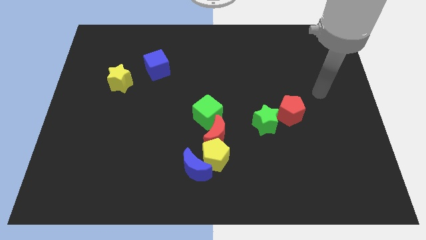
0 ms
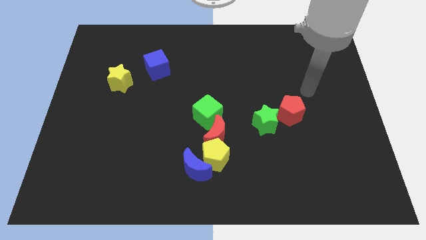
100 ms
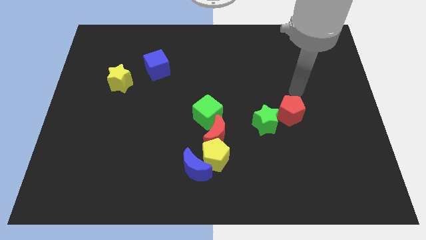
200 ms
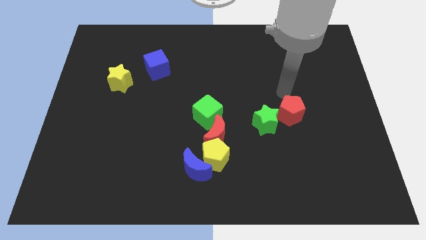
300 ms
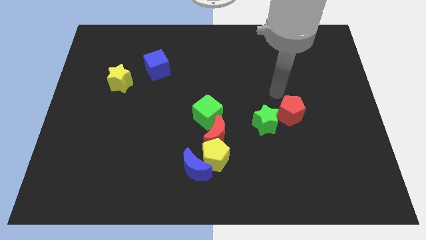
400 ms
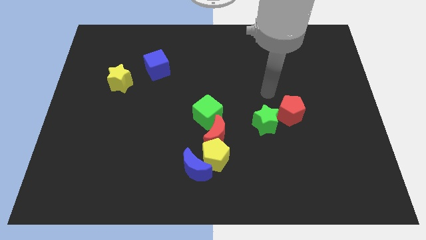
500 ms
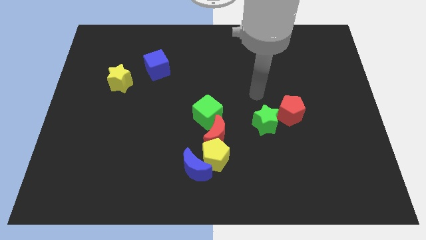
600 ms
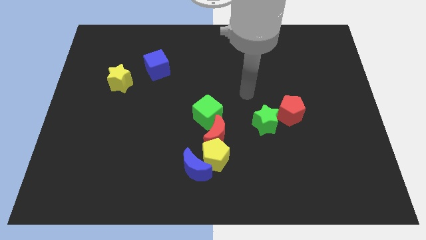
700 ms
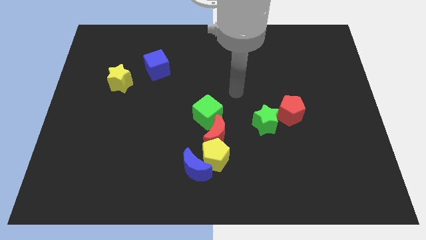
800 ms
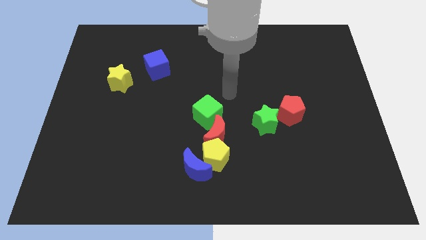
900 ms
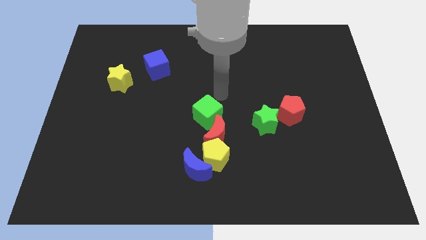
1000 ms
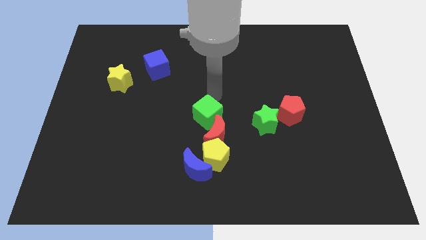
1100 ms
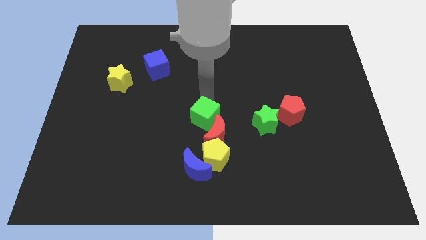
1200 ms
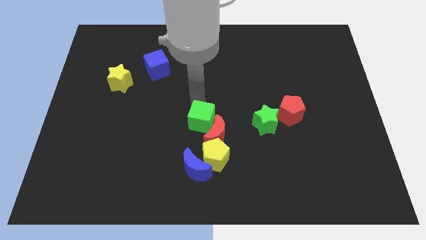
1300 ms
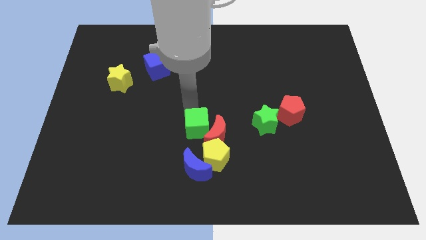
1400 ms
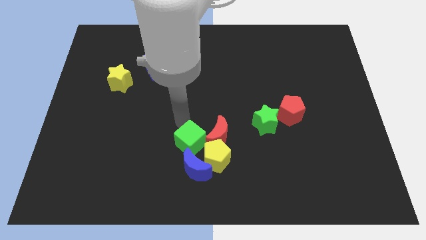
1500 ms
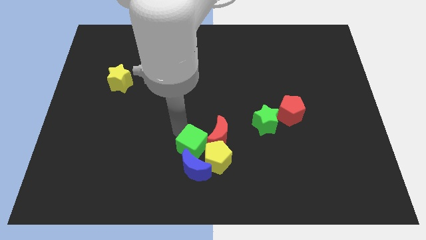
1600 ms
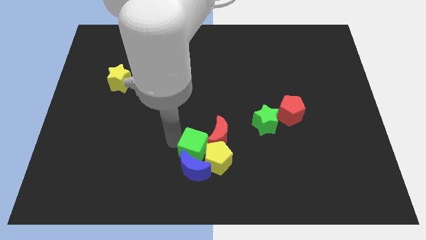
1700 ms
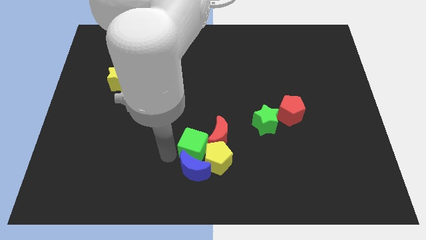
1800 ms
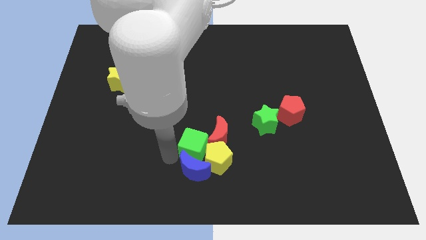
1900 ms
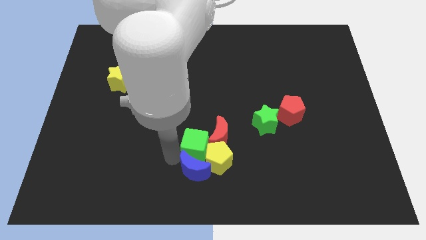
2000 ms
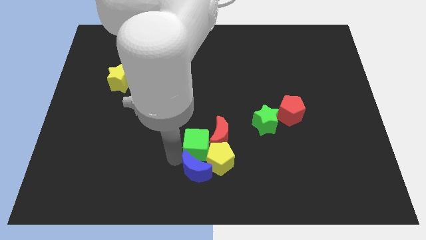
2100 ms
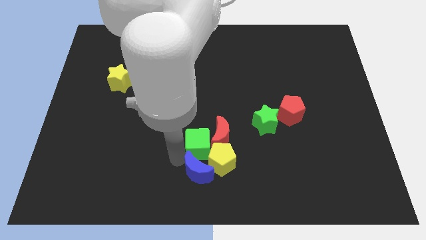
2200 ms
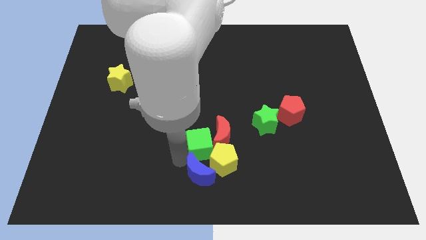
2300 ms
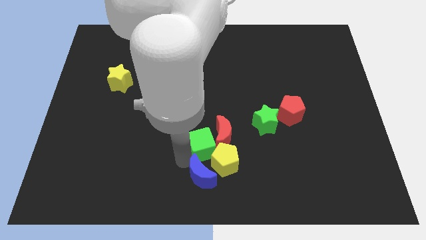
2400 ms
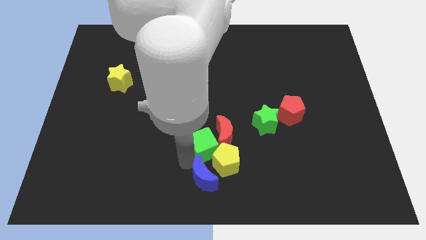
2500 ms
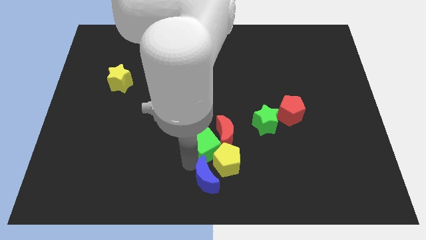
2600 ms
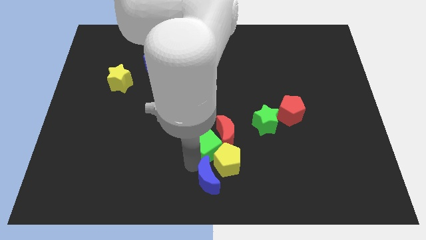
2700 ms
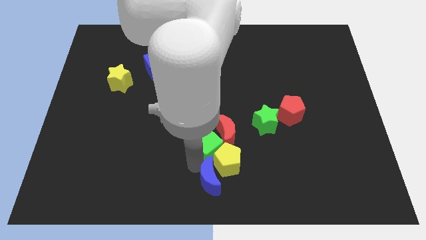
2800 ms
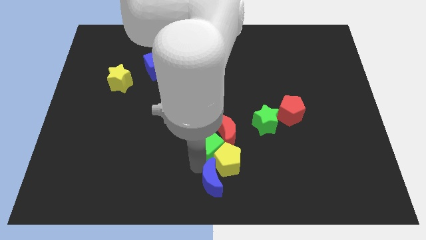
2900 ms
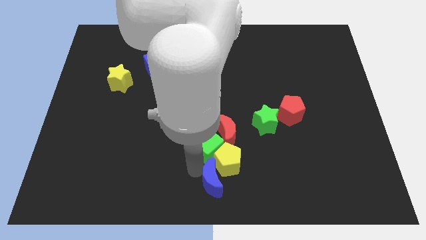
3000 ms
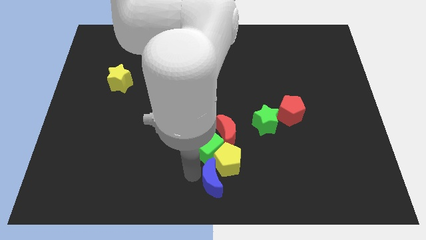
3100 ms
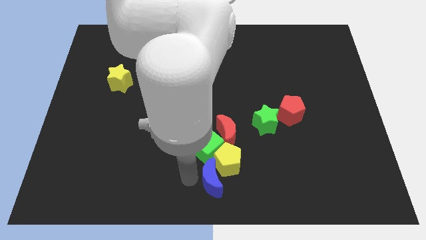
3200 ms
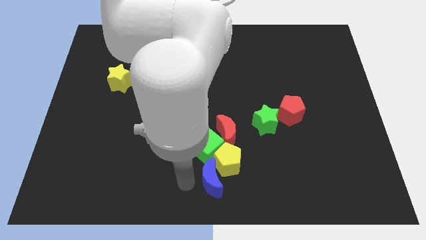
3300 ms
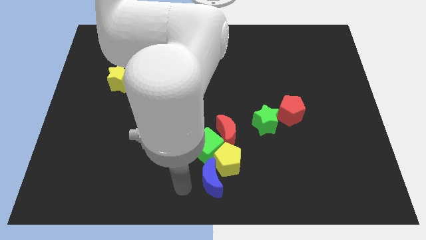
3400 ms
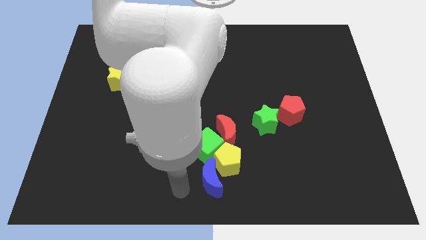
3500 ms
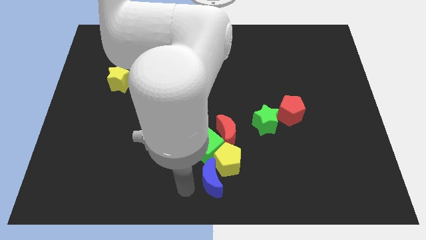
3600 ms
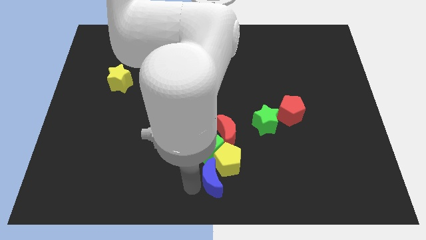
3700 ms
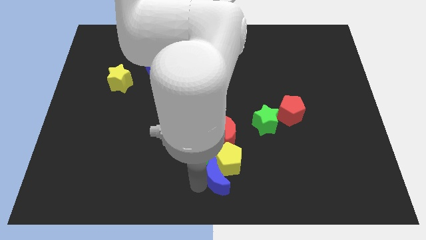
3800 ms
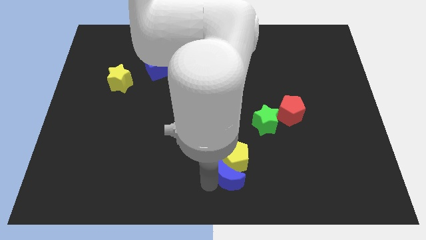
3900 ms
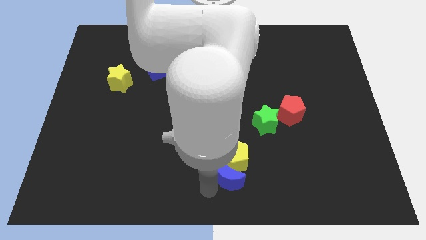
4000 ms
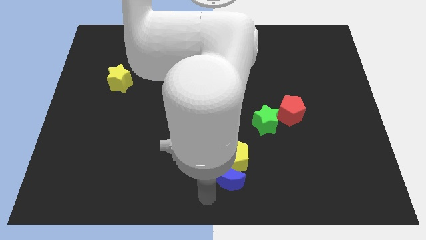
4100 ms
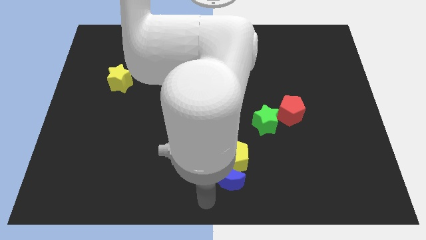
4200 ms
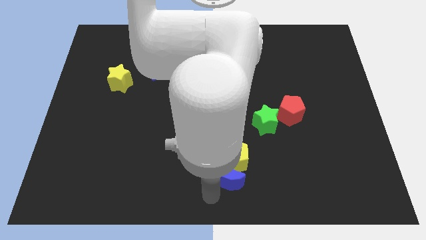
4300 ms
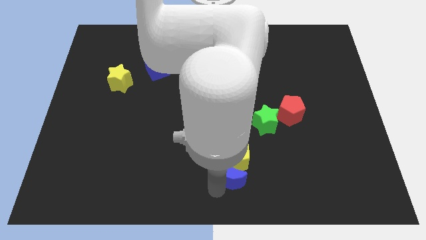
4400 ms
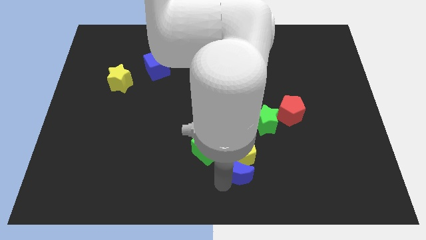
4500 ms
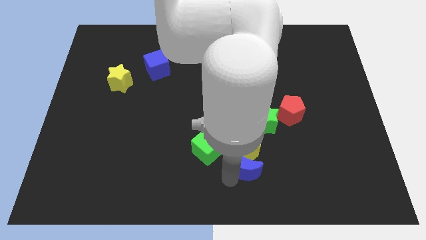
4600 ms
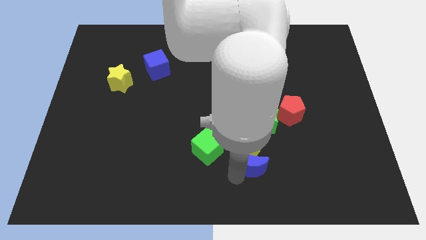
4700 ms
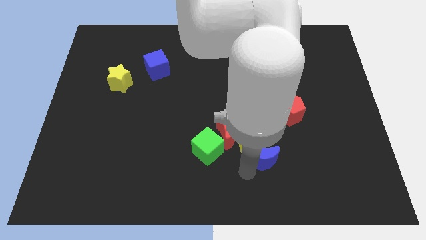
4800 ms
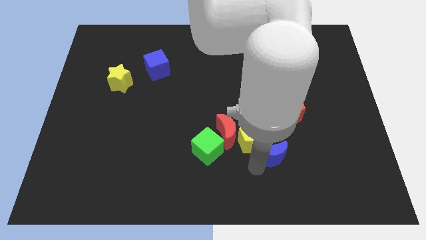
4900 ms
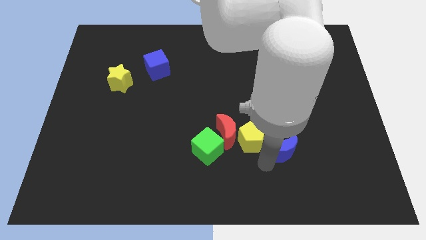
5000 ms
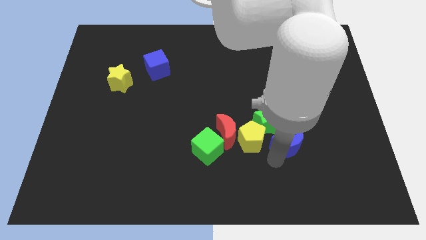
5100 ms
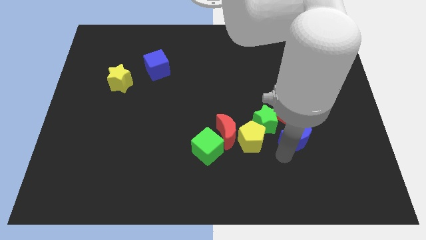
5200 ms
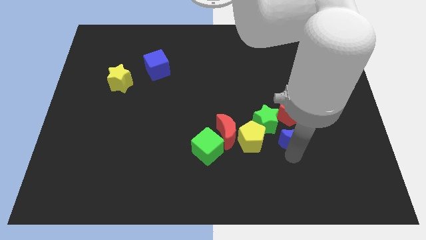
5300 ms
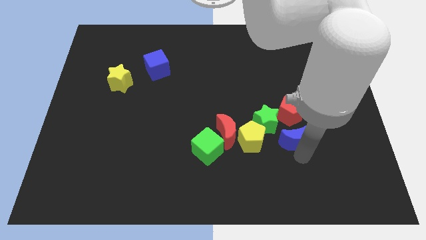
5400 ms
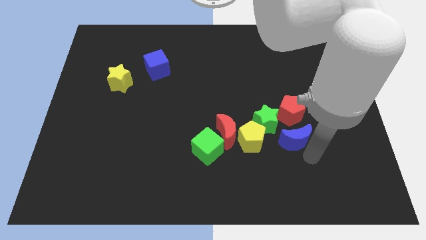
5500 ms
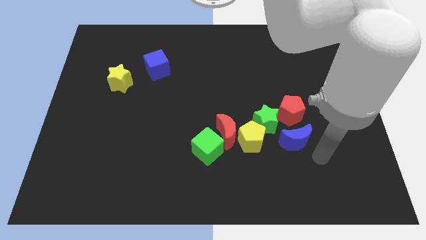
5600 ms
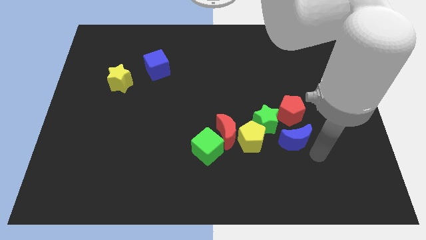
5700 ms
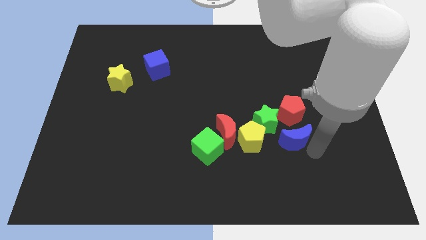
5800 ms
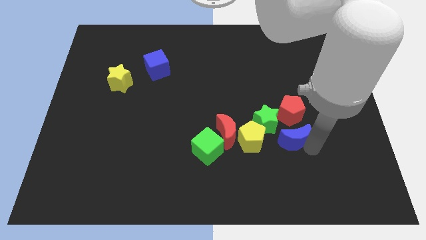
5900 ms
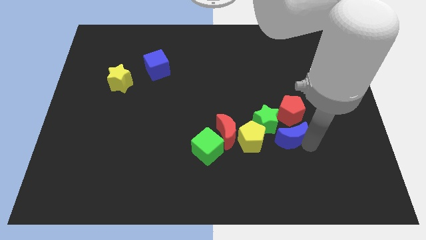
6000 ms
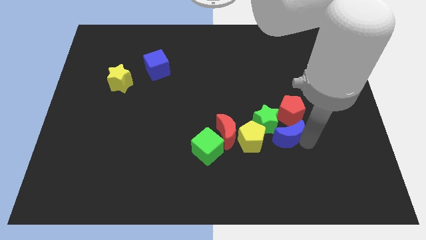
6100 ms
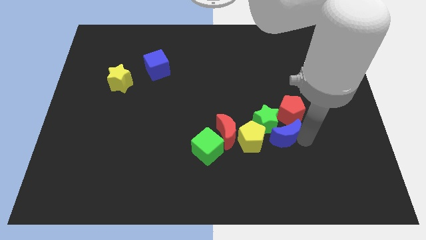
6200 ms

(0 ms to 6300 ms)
slide the blue moon towards the green star

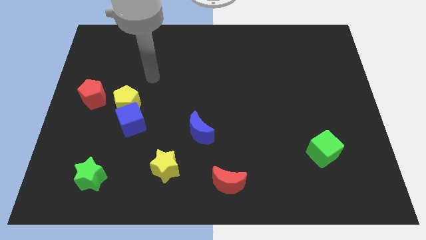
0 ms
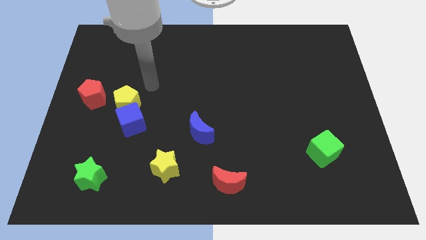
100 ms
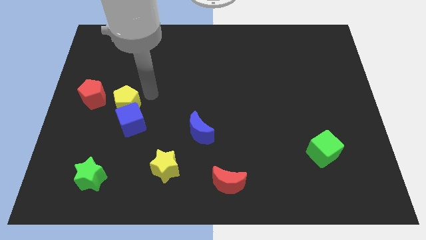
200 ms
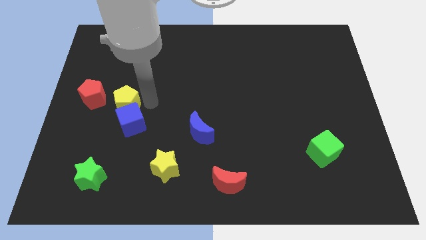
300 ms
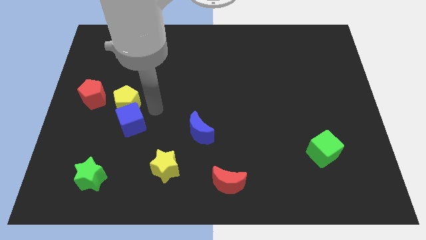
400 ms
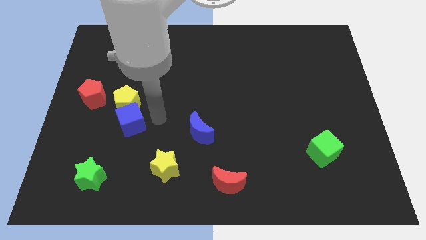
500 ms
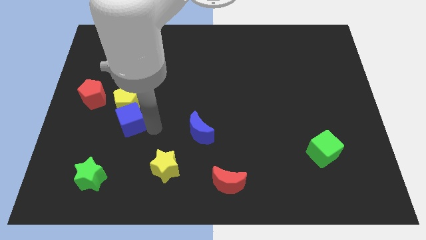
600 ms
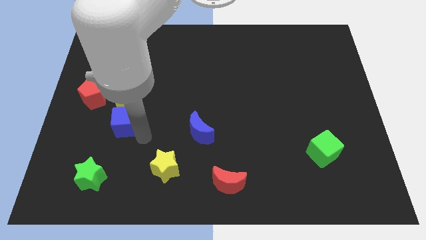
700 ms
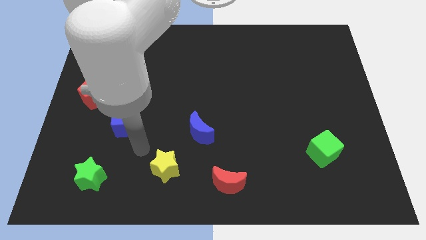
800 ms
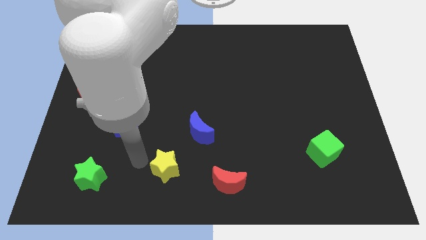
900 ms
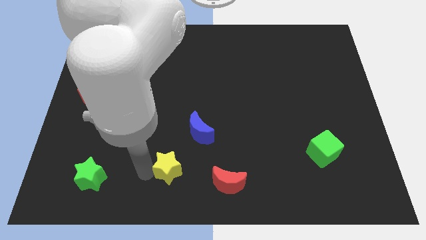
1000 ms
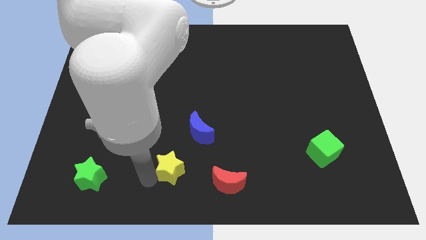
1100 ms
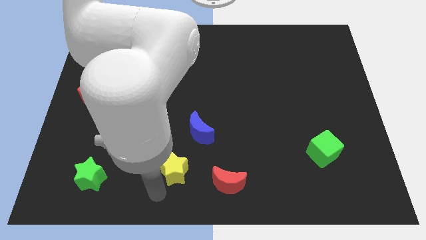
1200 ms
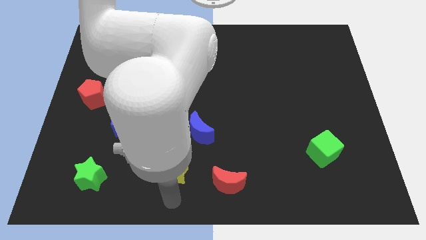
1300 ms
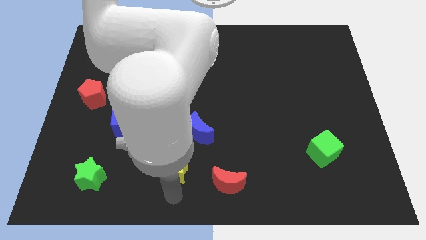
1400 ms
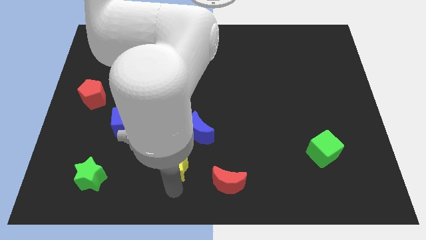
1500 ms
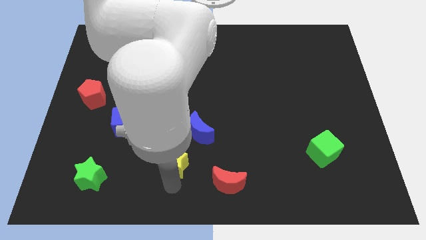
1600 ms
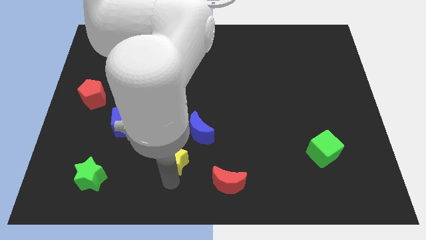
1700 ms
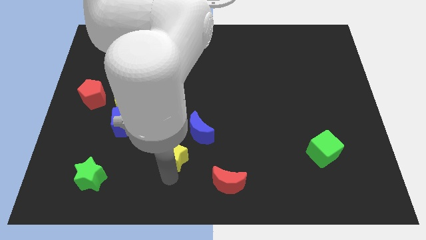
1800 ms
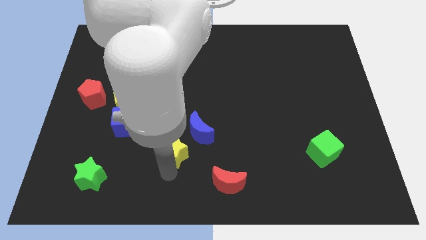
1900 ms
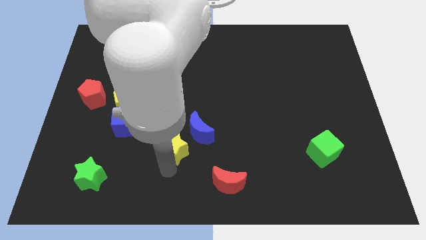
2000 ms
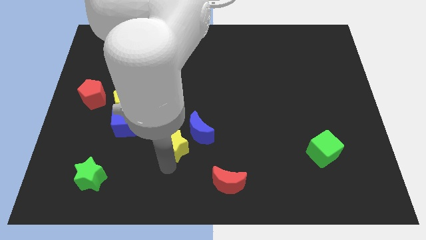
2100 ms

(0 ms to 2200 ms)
put the yellow star close to the blue moon
